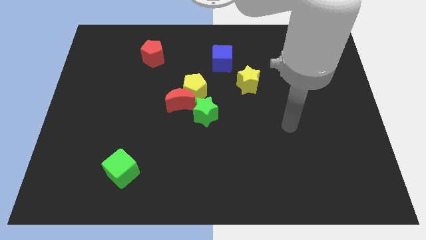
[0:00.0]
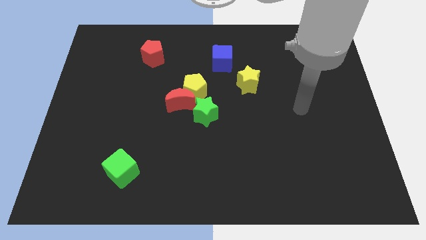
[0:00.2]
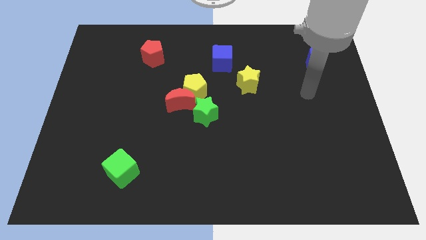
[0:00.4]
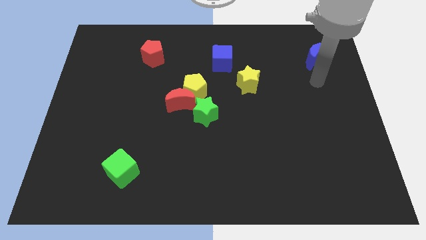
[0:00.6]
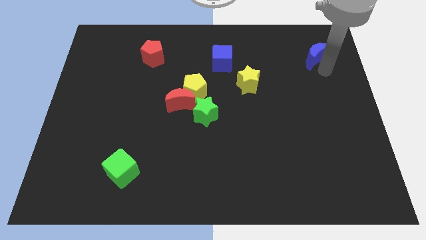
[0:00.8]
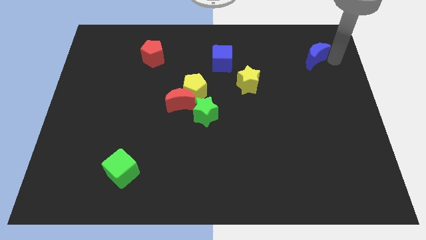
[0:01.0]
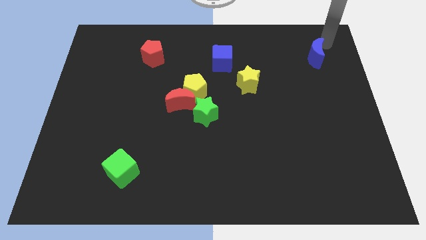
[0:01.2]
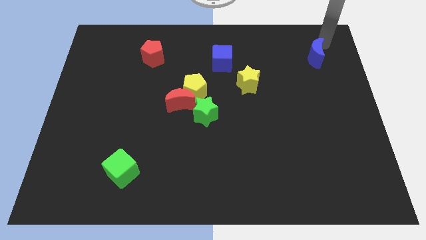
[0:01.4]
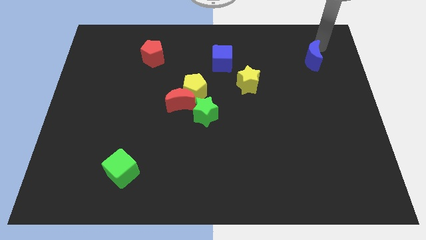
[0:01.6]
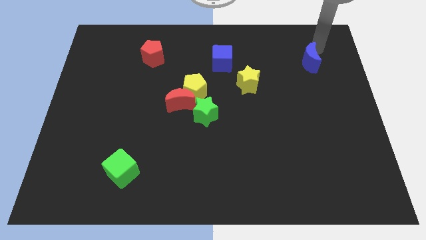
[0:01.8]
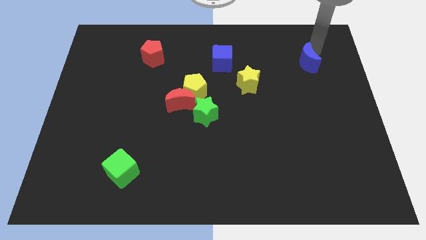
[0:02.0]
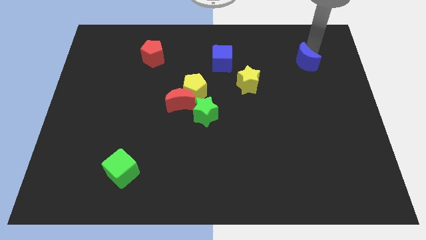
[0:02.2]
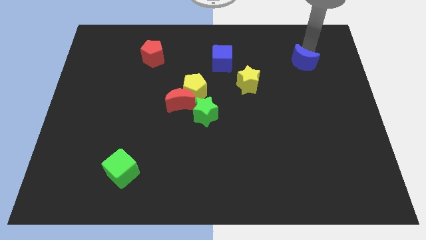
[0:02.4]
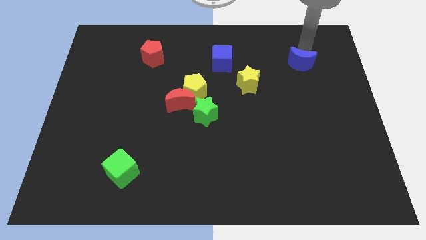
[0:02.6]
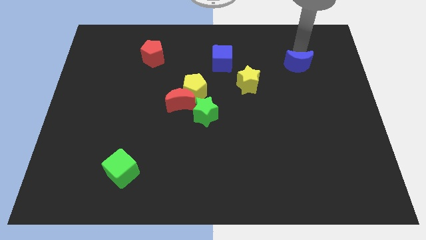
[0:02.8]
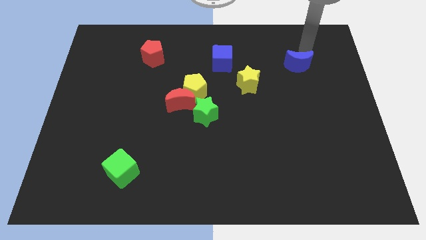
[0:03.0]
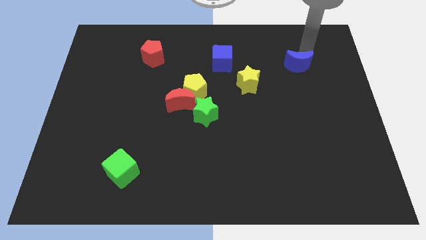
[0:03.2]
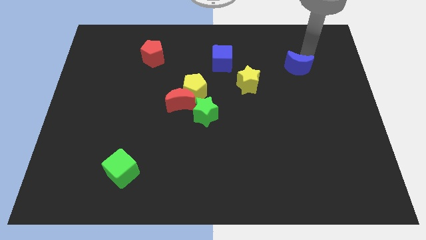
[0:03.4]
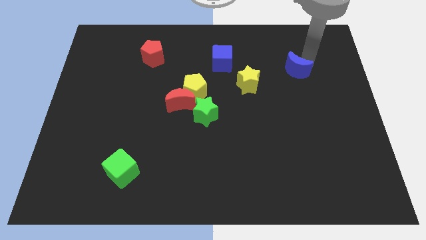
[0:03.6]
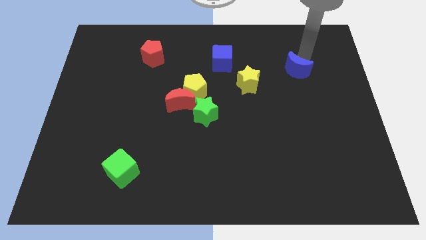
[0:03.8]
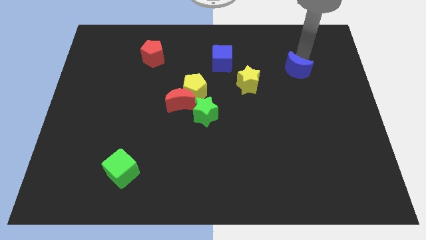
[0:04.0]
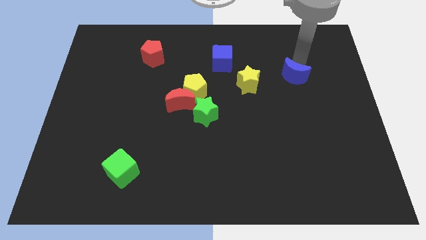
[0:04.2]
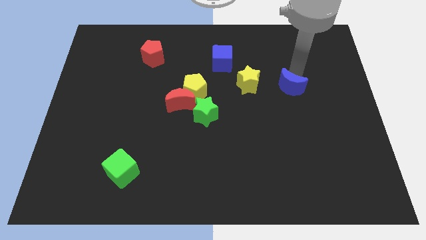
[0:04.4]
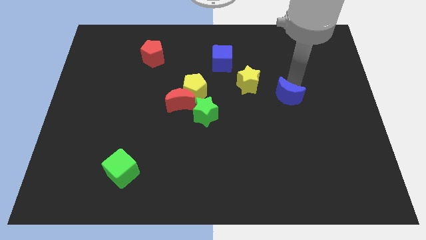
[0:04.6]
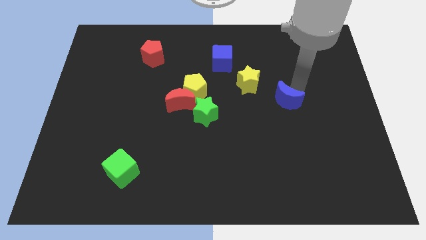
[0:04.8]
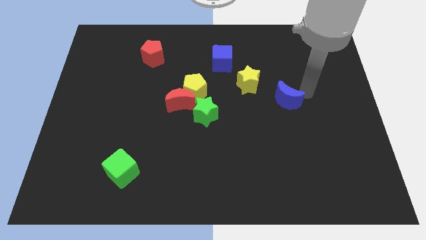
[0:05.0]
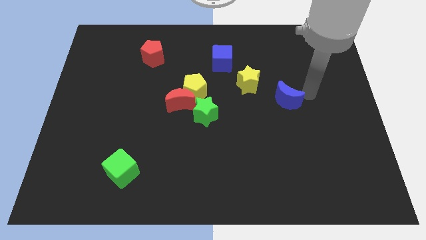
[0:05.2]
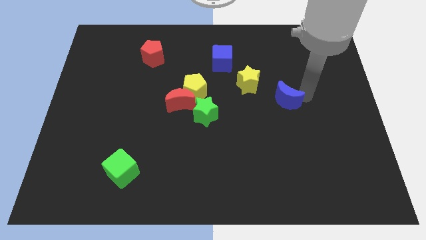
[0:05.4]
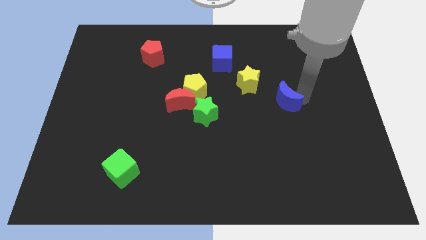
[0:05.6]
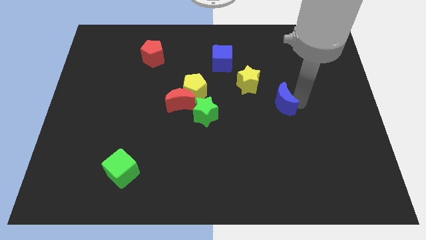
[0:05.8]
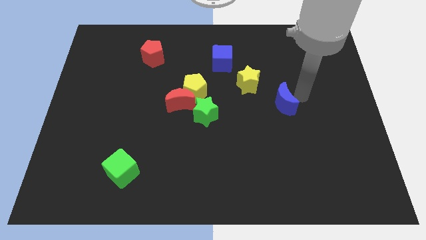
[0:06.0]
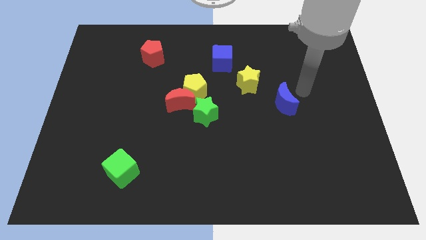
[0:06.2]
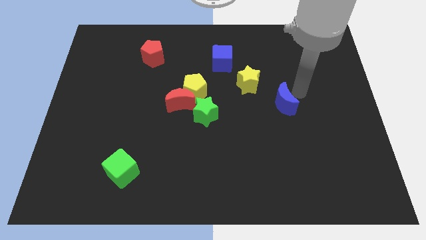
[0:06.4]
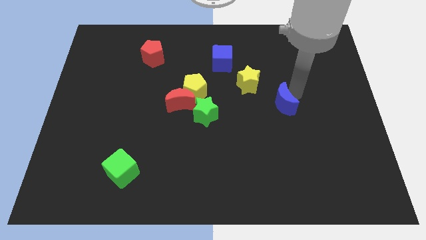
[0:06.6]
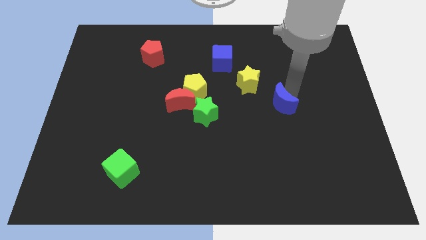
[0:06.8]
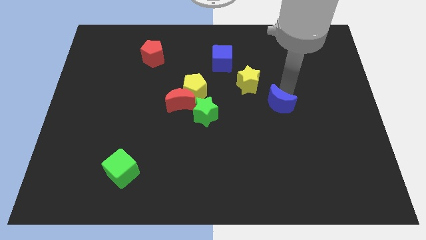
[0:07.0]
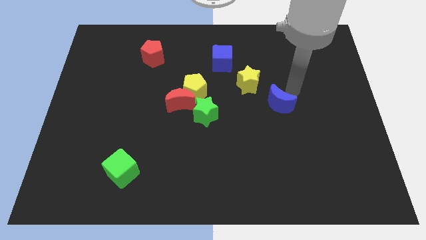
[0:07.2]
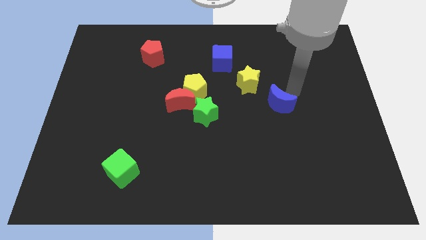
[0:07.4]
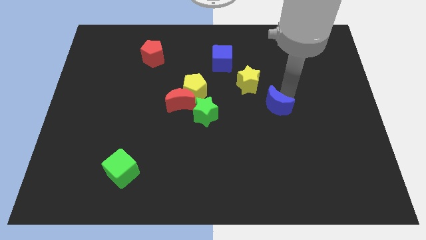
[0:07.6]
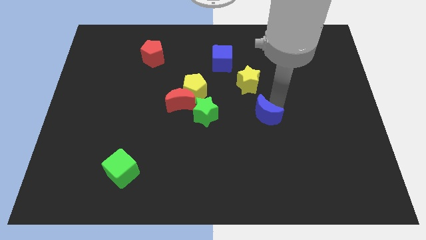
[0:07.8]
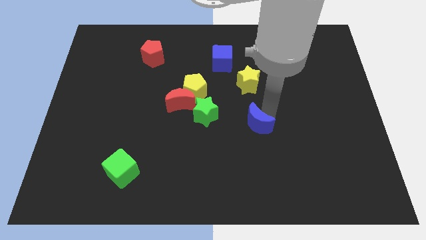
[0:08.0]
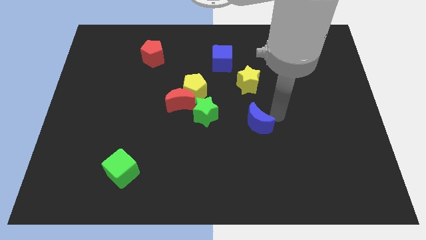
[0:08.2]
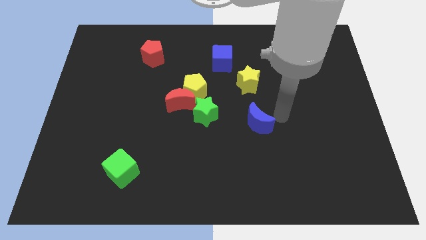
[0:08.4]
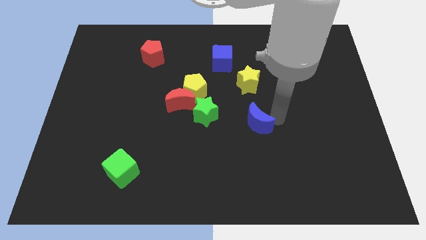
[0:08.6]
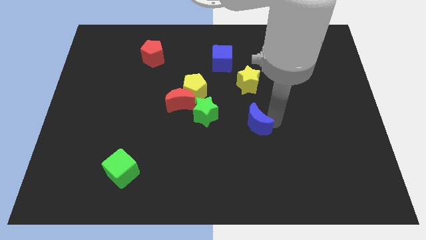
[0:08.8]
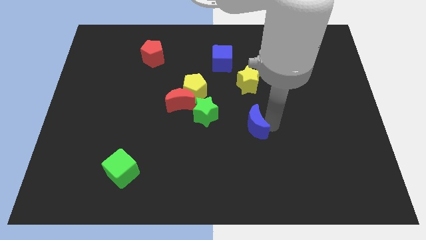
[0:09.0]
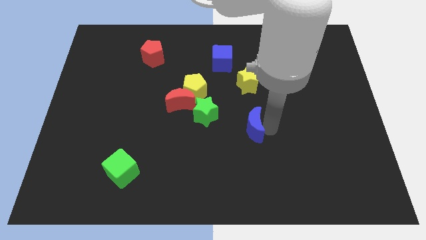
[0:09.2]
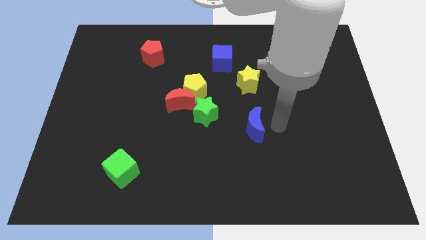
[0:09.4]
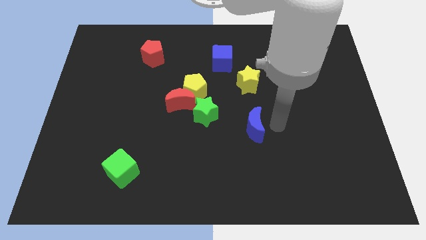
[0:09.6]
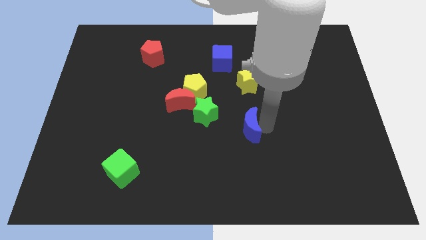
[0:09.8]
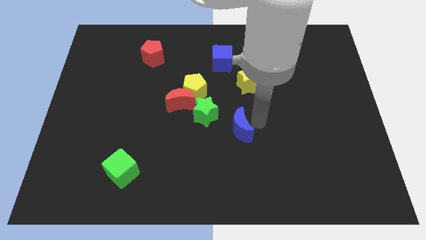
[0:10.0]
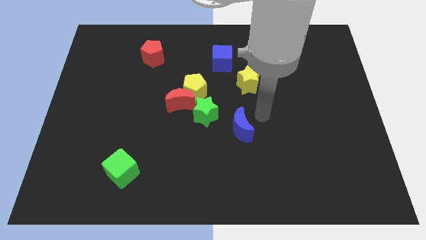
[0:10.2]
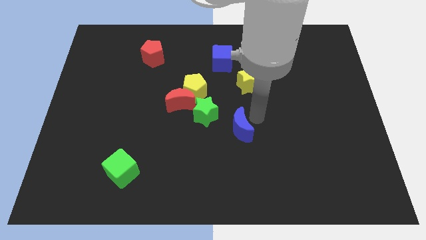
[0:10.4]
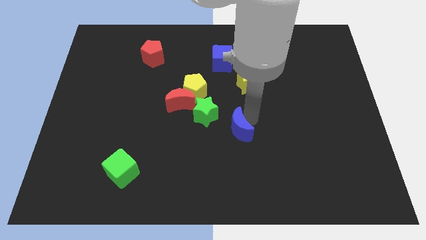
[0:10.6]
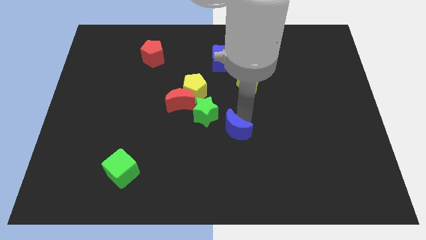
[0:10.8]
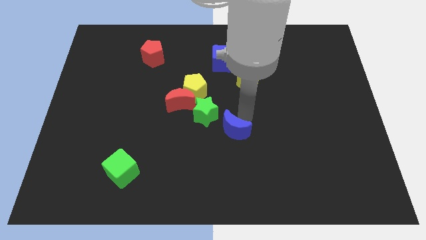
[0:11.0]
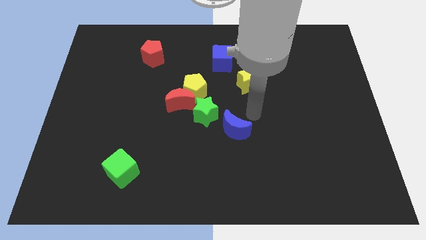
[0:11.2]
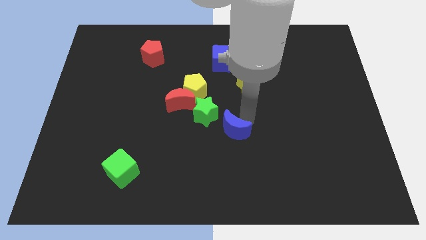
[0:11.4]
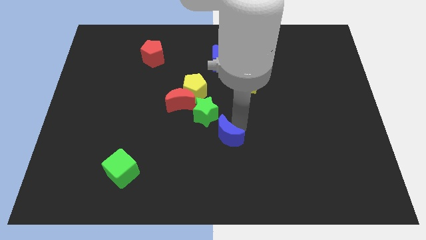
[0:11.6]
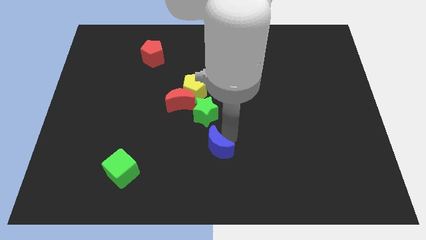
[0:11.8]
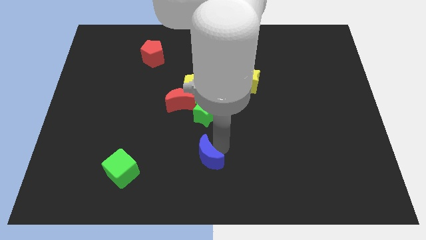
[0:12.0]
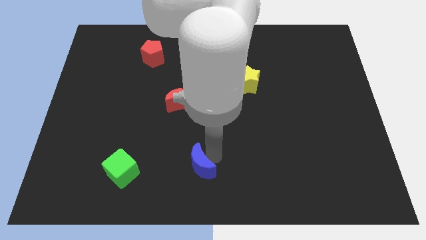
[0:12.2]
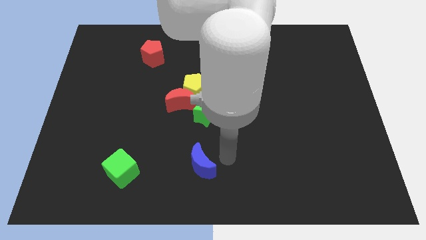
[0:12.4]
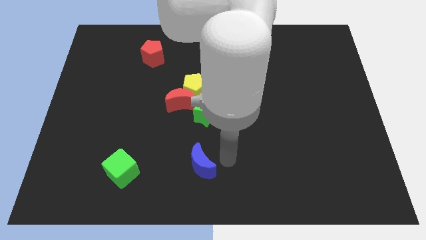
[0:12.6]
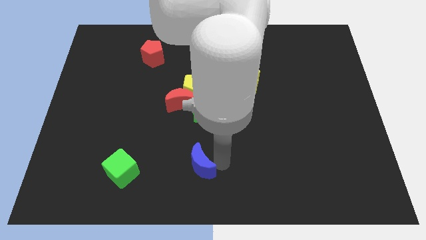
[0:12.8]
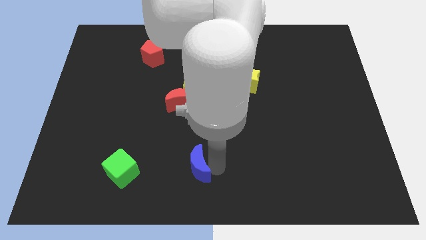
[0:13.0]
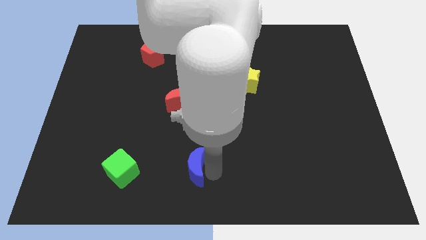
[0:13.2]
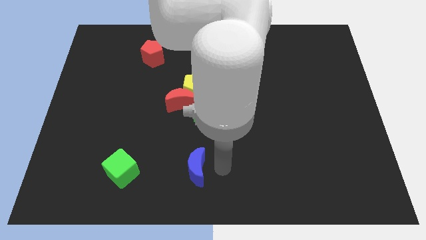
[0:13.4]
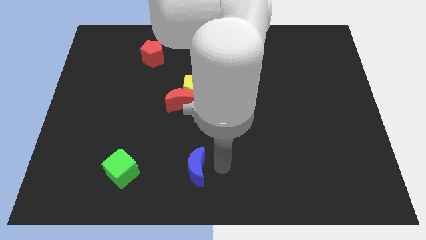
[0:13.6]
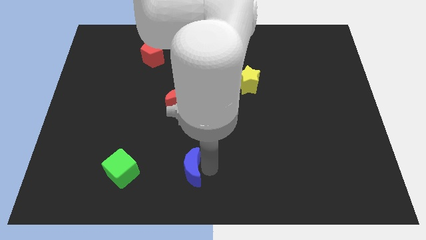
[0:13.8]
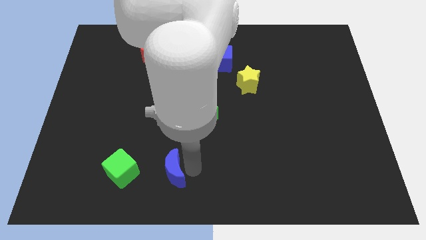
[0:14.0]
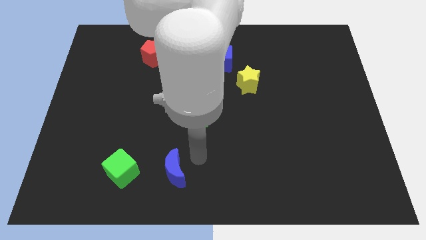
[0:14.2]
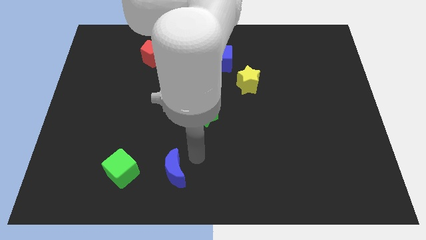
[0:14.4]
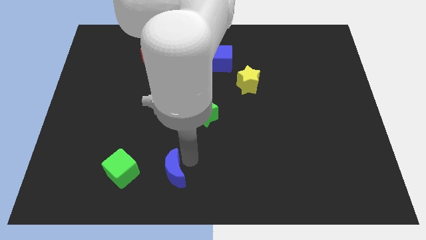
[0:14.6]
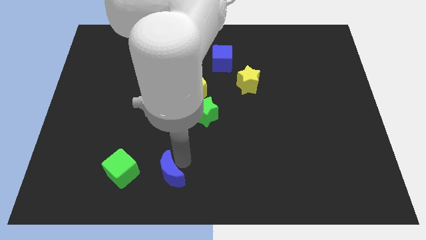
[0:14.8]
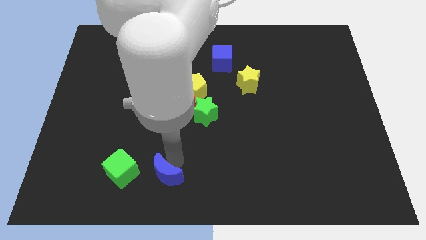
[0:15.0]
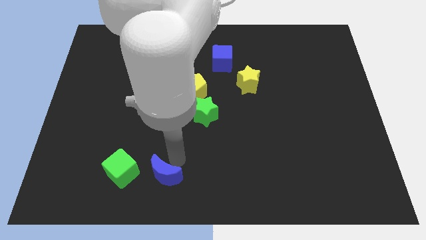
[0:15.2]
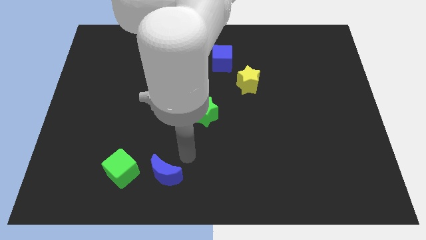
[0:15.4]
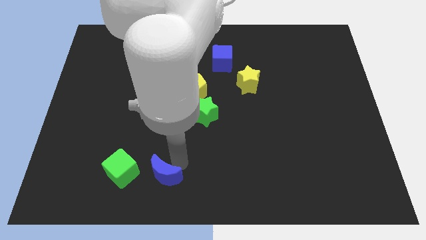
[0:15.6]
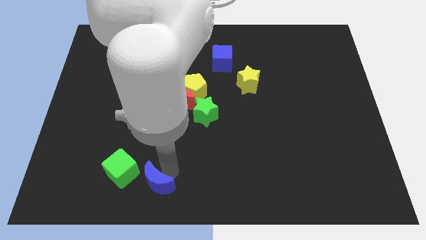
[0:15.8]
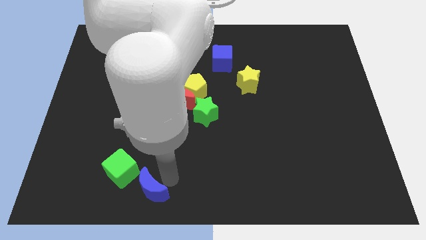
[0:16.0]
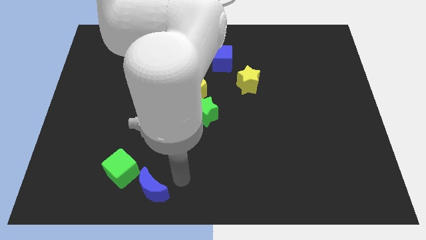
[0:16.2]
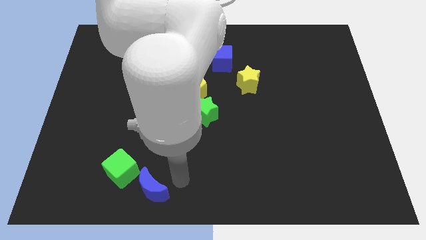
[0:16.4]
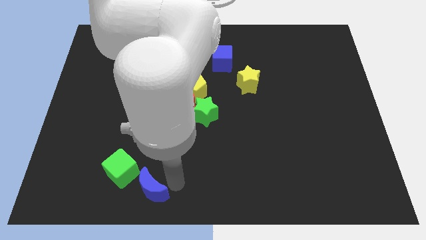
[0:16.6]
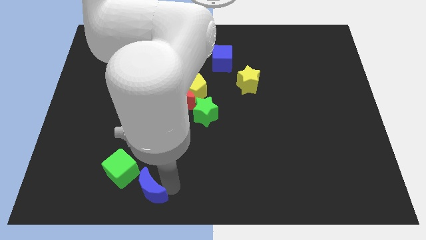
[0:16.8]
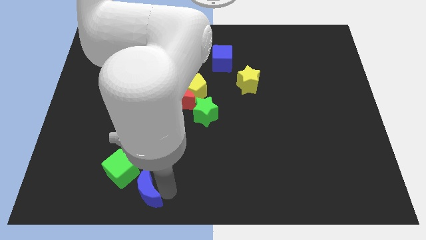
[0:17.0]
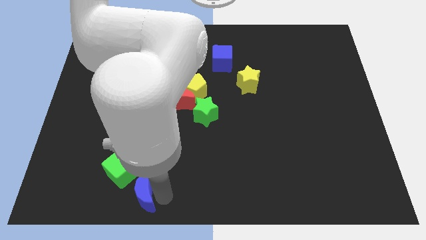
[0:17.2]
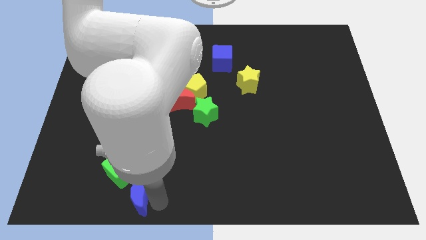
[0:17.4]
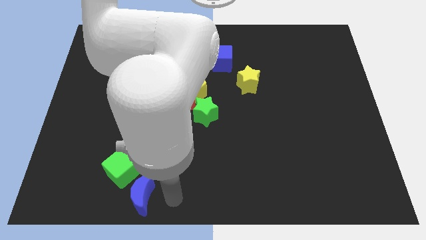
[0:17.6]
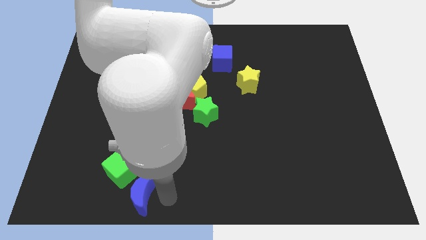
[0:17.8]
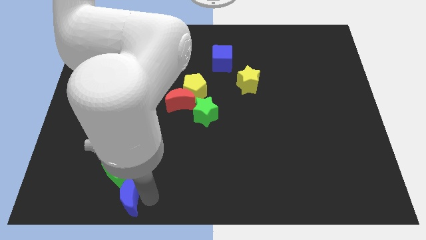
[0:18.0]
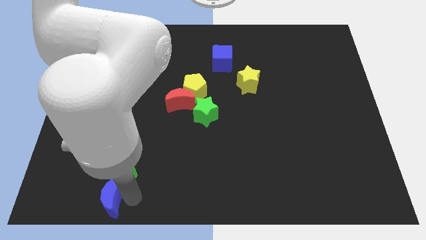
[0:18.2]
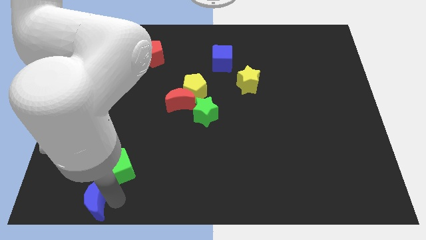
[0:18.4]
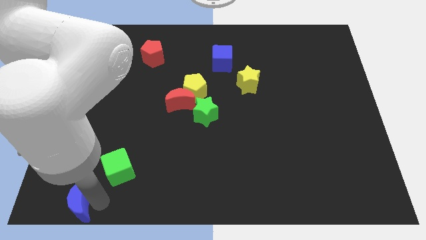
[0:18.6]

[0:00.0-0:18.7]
push the blue moon to the bottom left of the board
